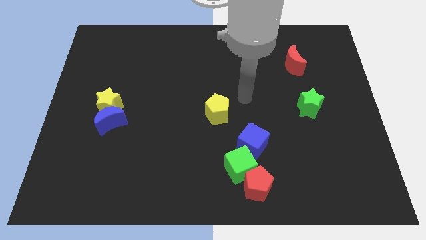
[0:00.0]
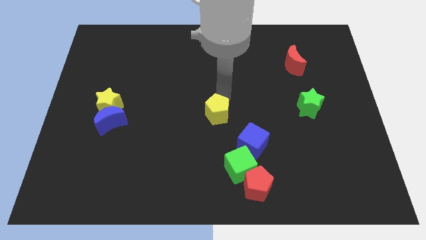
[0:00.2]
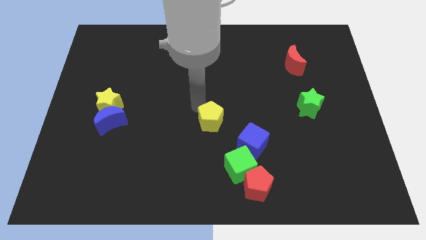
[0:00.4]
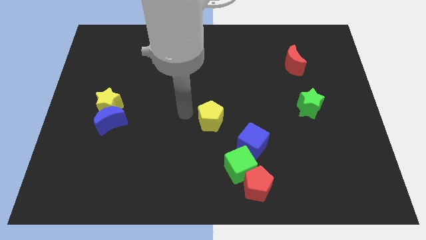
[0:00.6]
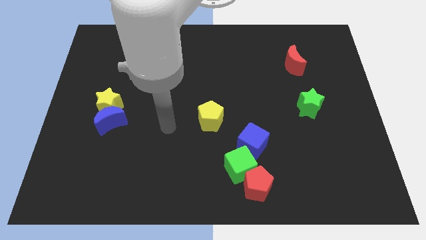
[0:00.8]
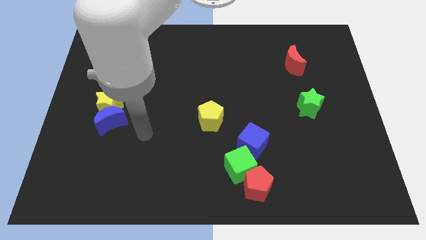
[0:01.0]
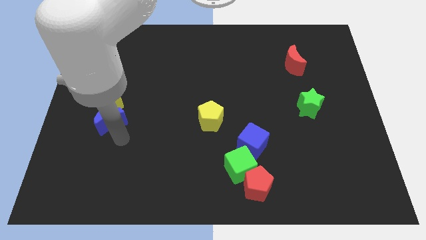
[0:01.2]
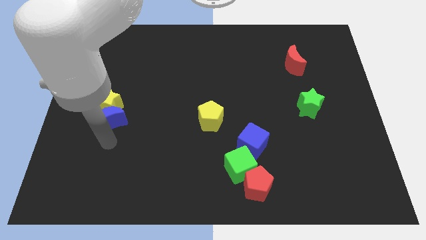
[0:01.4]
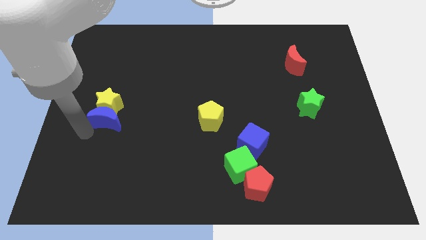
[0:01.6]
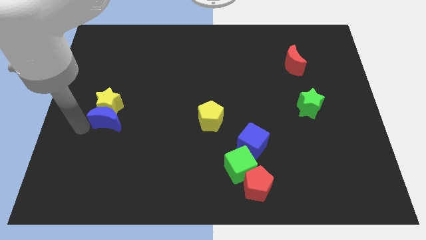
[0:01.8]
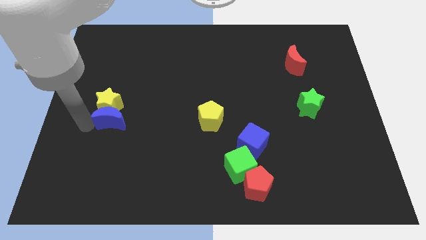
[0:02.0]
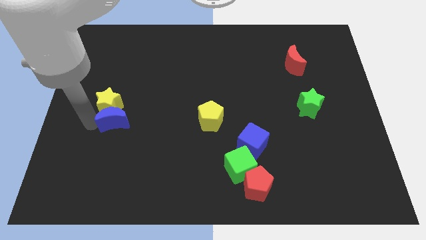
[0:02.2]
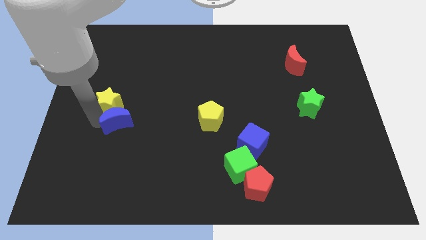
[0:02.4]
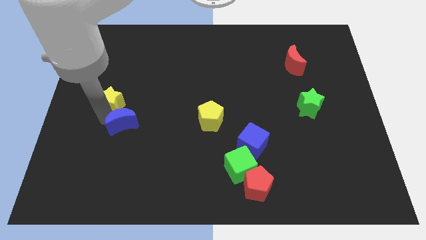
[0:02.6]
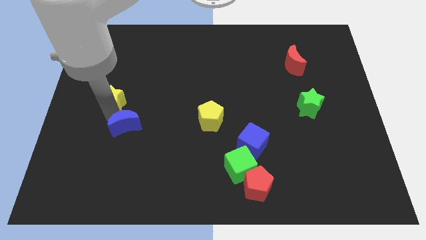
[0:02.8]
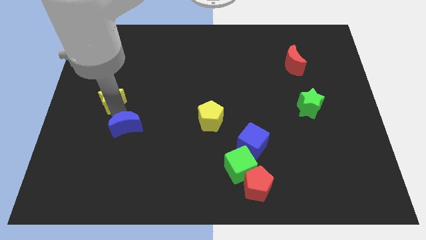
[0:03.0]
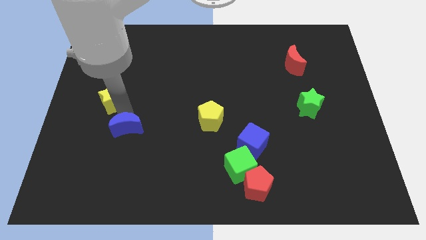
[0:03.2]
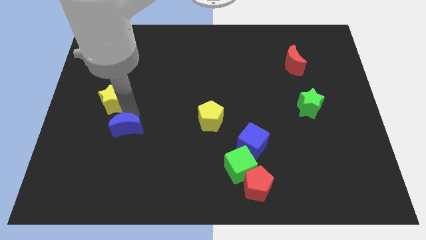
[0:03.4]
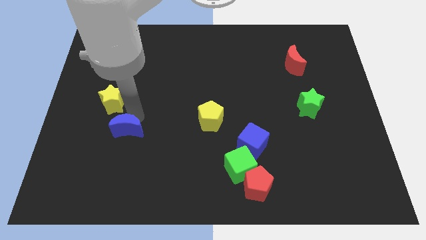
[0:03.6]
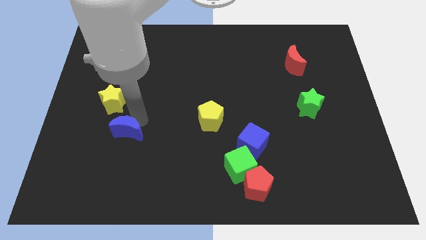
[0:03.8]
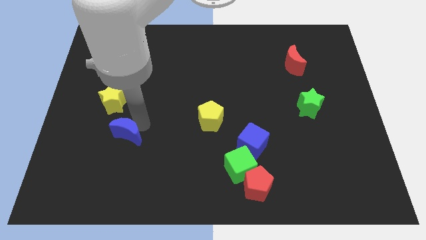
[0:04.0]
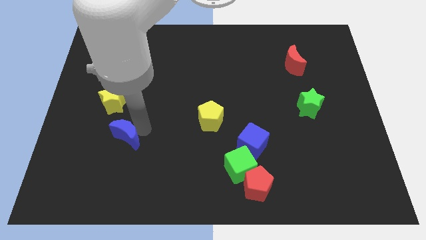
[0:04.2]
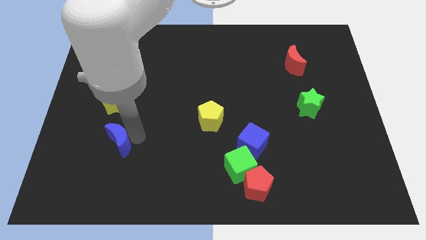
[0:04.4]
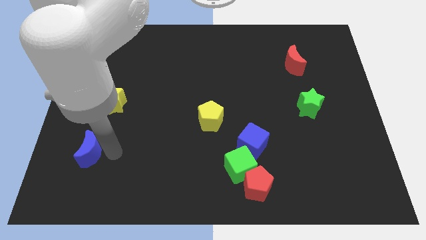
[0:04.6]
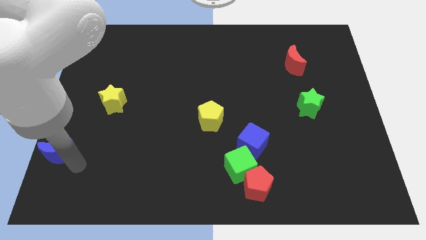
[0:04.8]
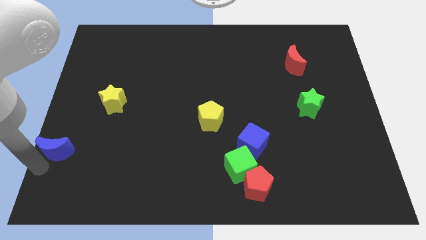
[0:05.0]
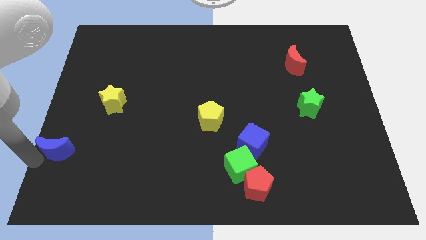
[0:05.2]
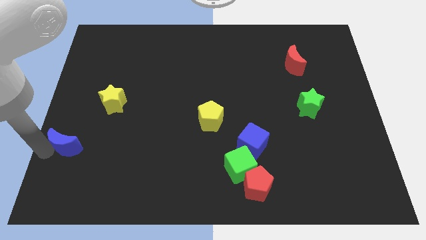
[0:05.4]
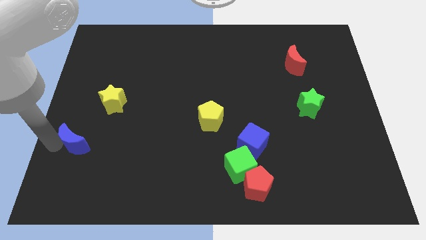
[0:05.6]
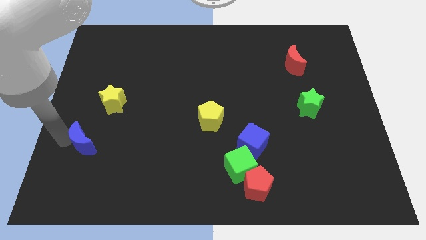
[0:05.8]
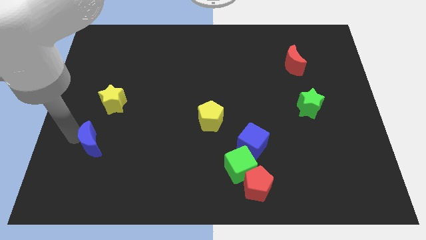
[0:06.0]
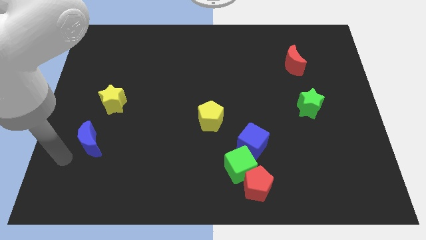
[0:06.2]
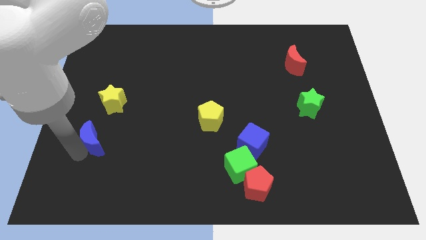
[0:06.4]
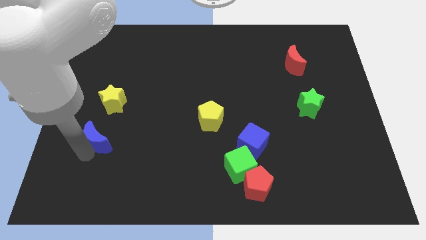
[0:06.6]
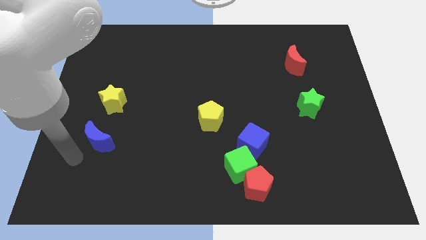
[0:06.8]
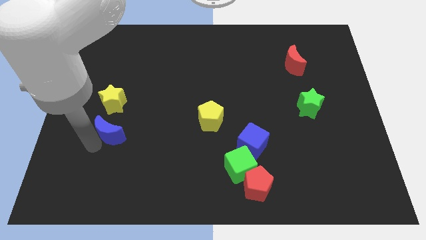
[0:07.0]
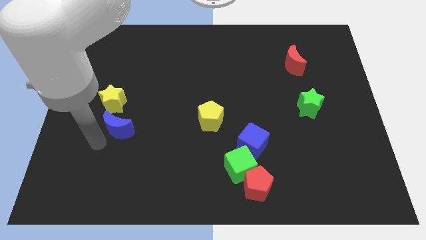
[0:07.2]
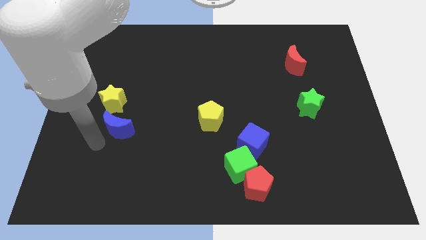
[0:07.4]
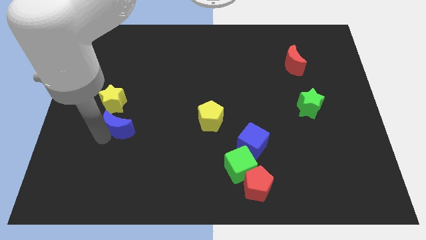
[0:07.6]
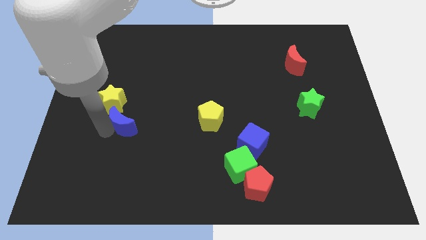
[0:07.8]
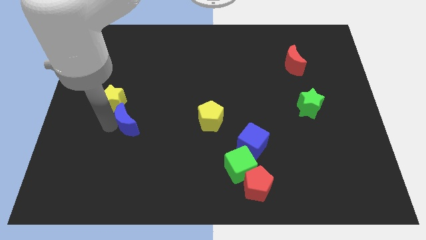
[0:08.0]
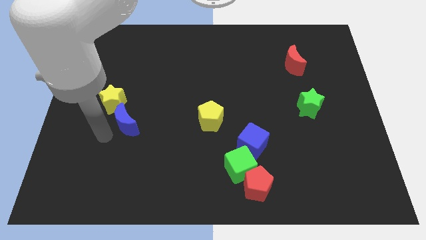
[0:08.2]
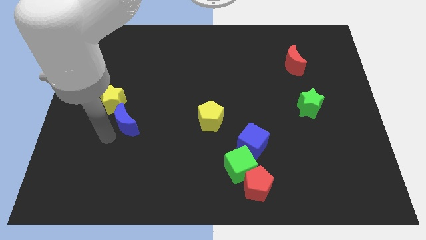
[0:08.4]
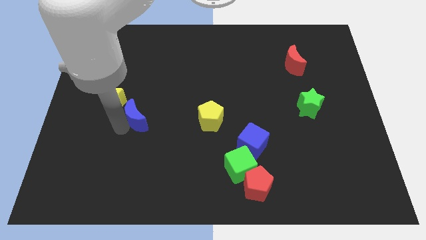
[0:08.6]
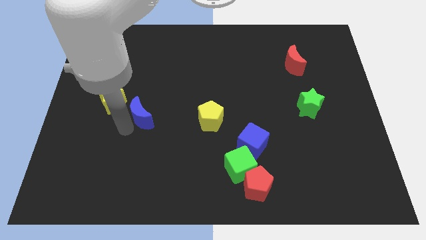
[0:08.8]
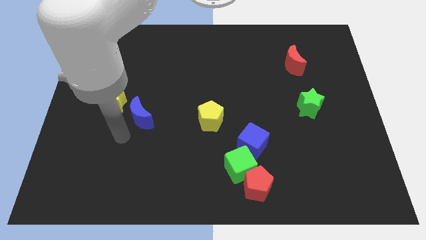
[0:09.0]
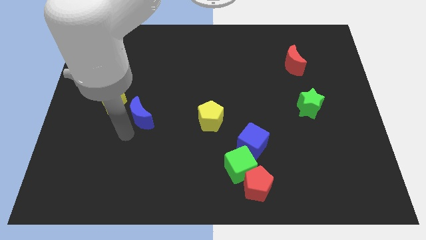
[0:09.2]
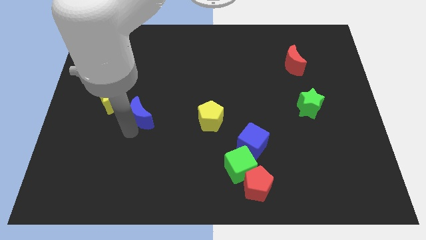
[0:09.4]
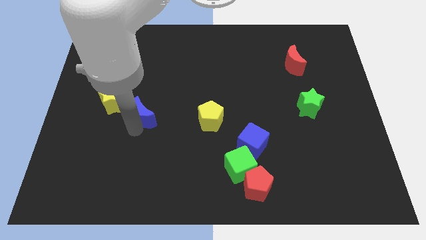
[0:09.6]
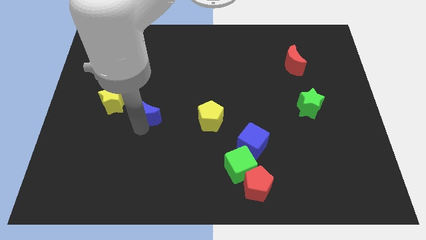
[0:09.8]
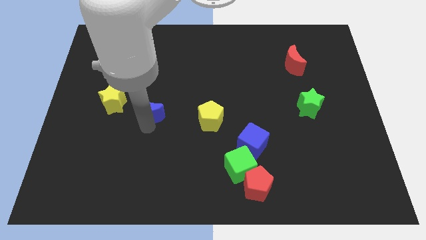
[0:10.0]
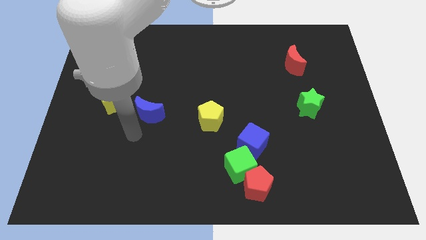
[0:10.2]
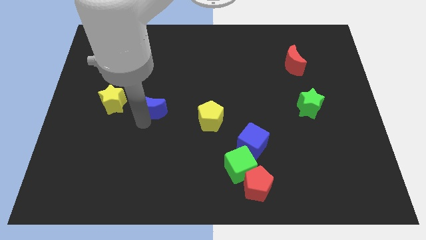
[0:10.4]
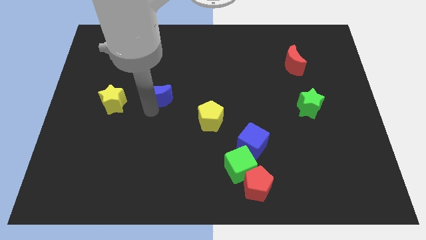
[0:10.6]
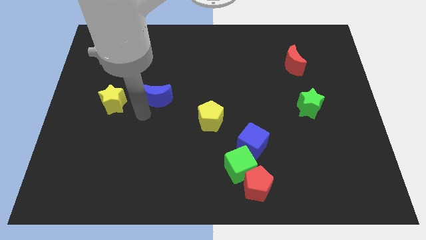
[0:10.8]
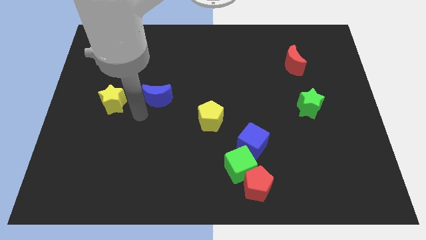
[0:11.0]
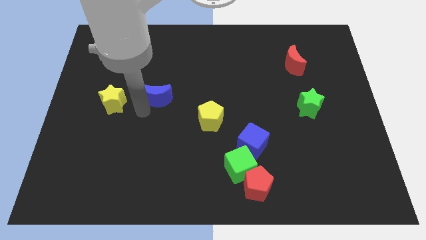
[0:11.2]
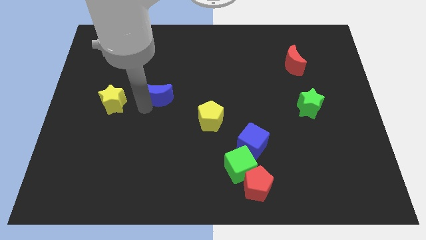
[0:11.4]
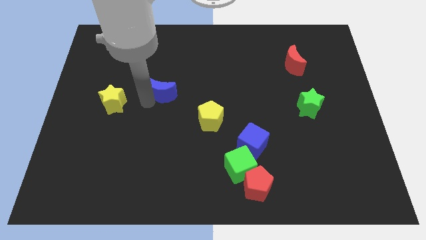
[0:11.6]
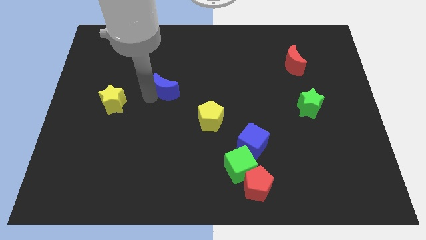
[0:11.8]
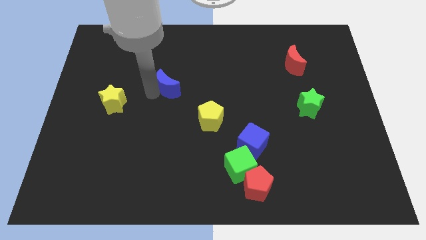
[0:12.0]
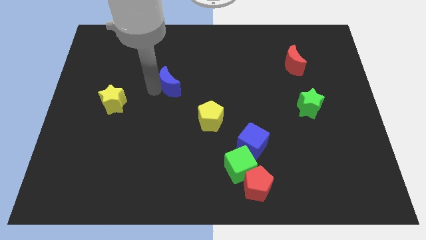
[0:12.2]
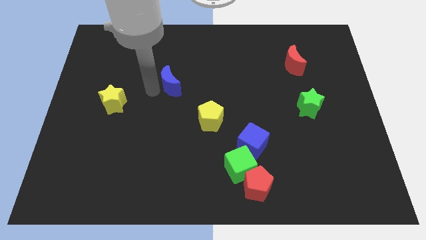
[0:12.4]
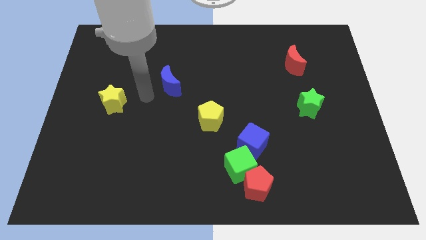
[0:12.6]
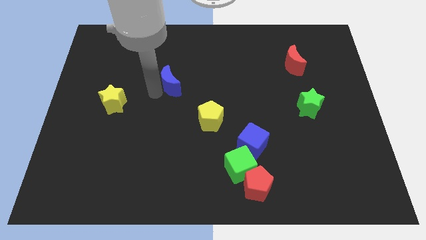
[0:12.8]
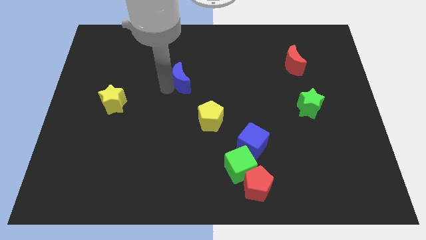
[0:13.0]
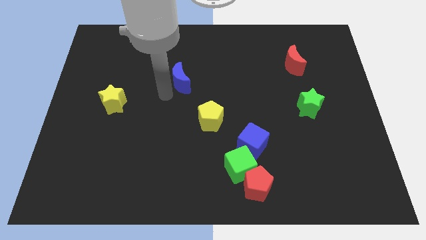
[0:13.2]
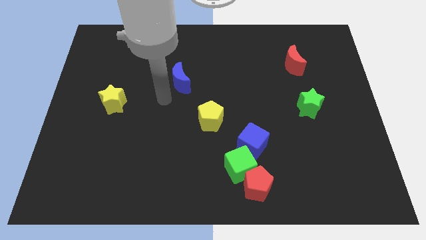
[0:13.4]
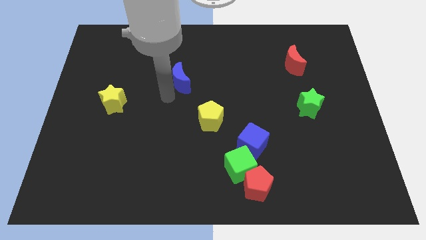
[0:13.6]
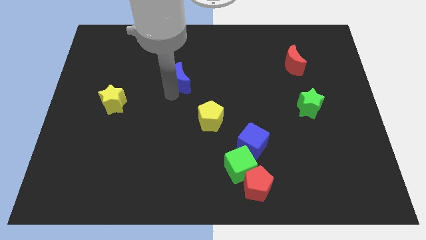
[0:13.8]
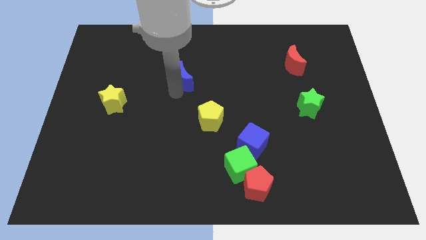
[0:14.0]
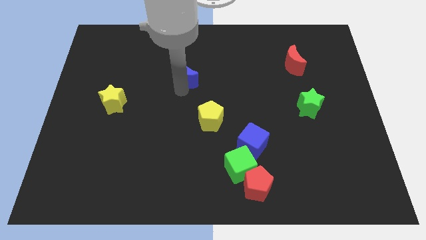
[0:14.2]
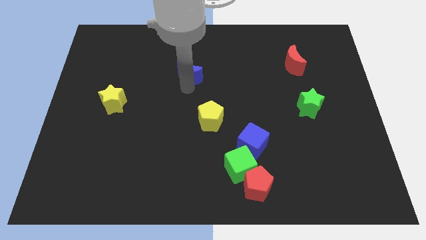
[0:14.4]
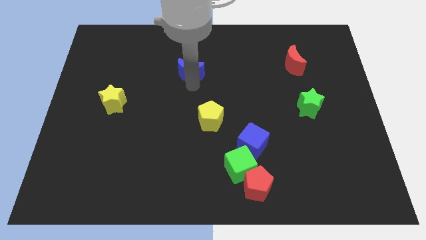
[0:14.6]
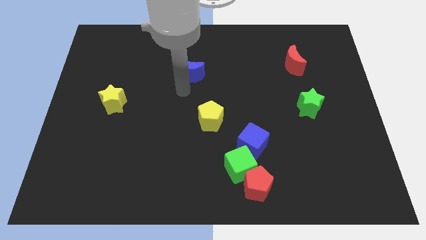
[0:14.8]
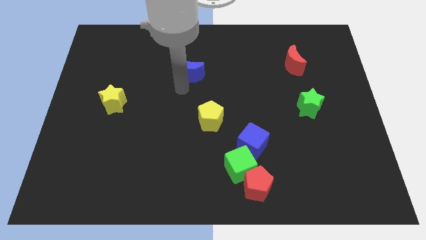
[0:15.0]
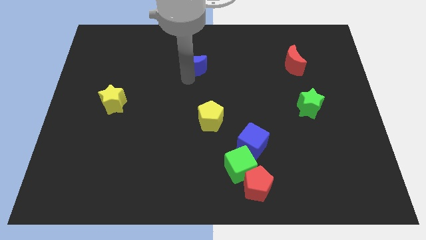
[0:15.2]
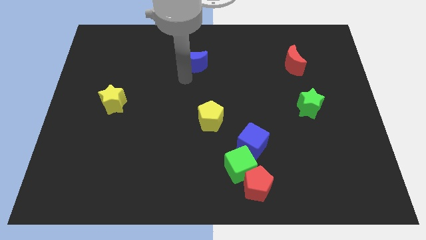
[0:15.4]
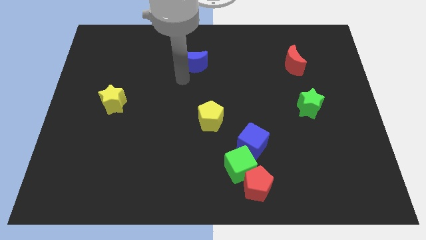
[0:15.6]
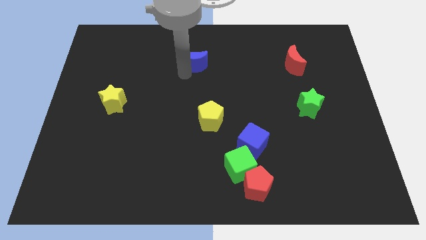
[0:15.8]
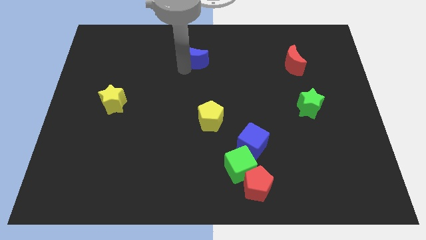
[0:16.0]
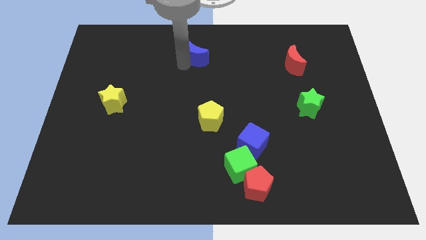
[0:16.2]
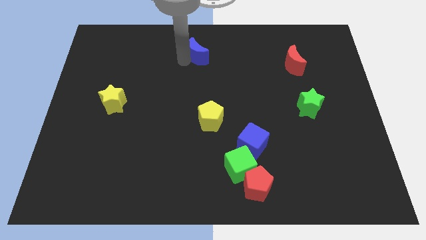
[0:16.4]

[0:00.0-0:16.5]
push the blue moon to the top side
